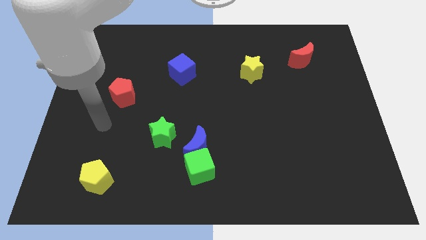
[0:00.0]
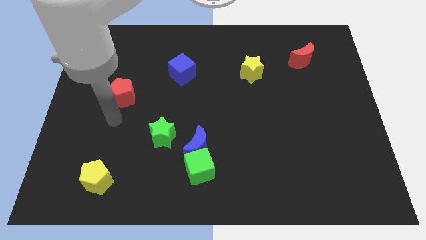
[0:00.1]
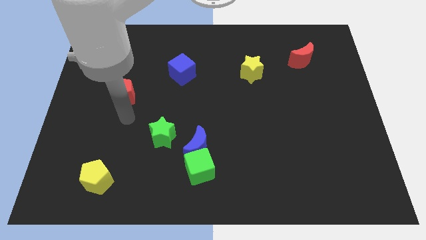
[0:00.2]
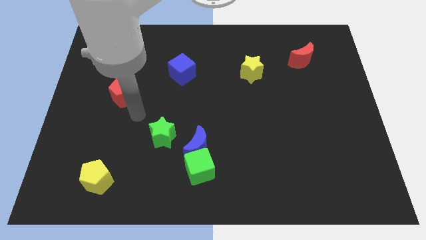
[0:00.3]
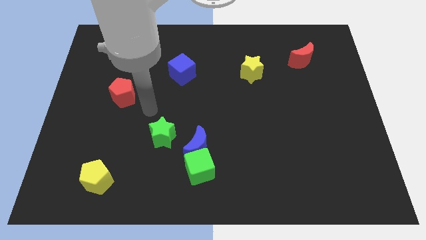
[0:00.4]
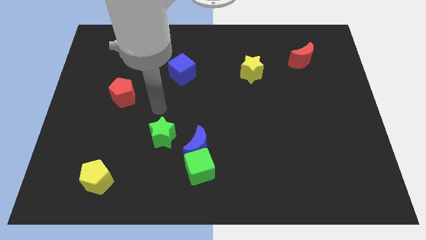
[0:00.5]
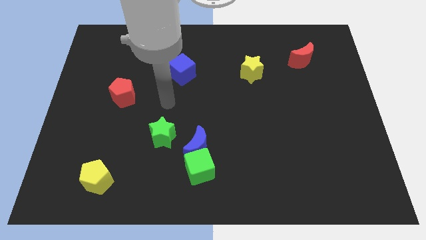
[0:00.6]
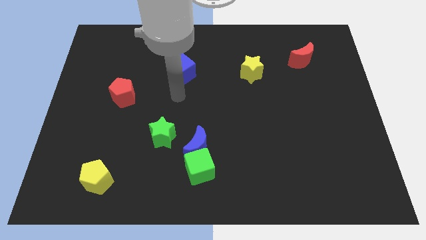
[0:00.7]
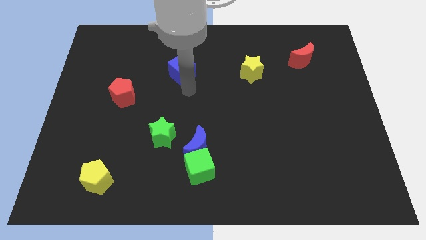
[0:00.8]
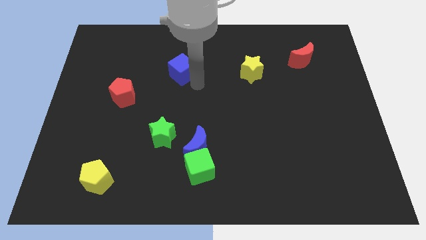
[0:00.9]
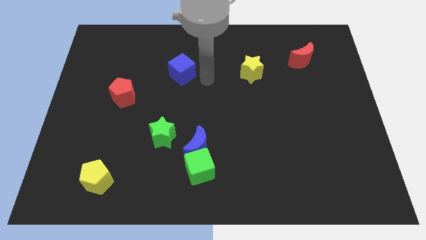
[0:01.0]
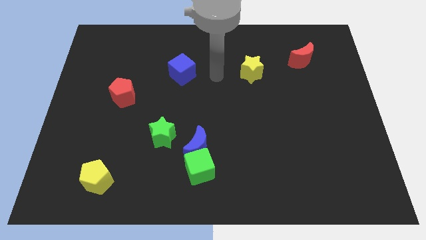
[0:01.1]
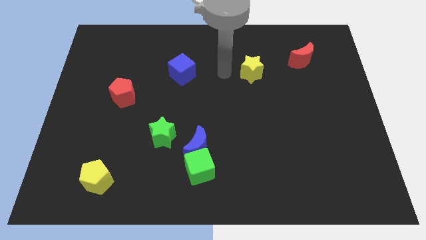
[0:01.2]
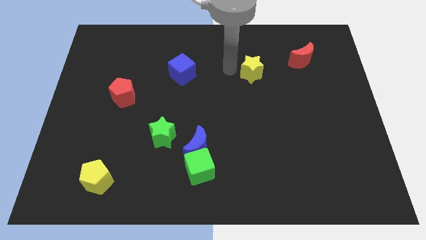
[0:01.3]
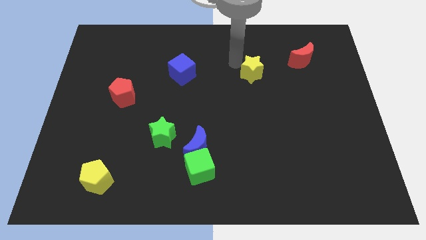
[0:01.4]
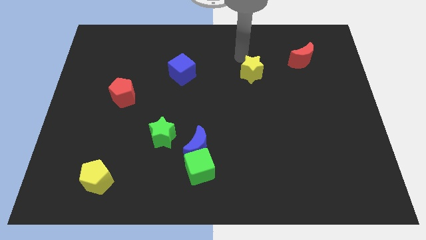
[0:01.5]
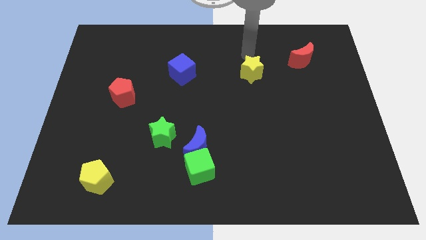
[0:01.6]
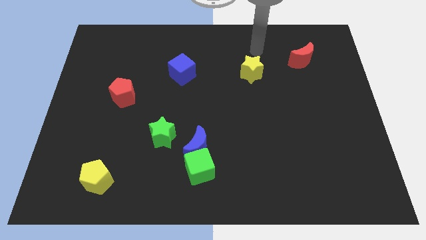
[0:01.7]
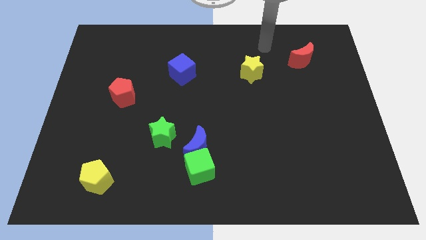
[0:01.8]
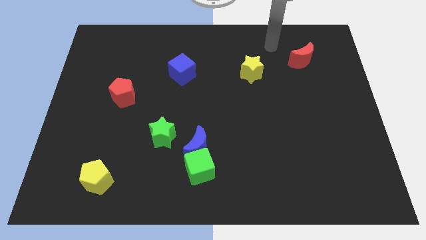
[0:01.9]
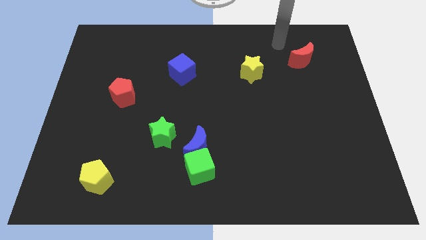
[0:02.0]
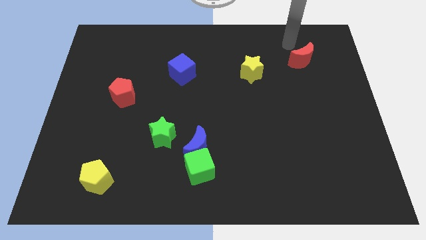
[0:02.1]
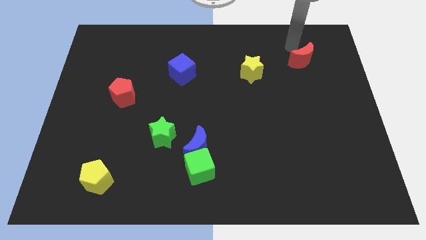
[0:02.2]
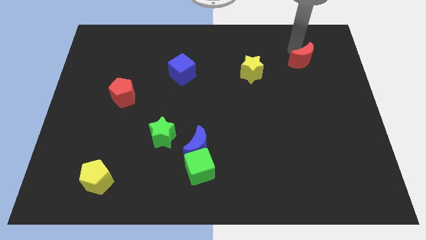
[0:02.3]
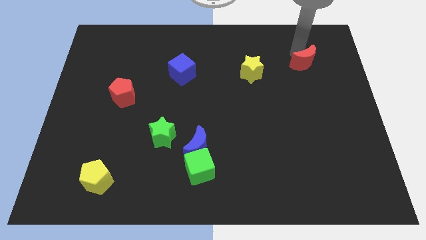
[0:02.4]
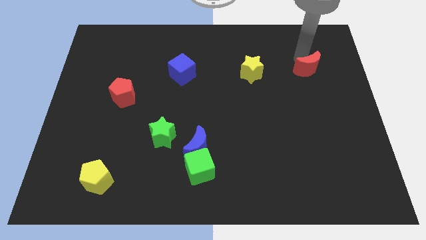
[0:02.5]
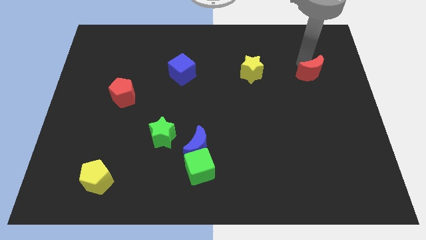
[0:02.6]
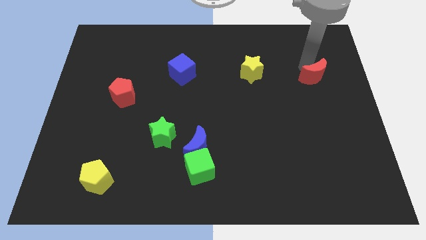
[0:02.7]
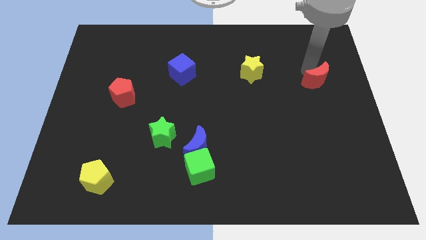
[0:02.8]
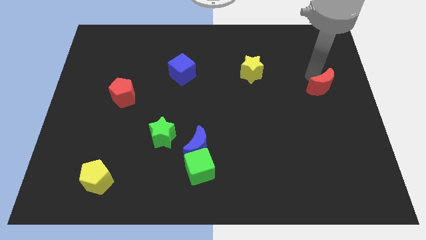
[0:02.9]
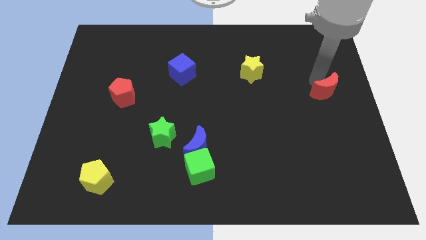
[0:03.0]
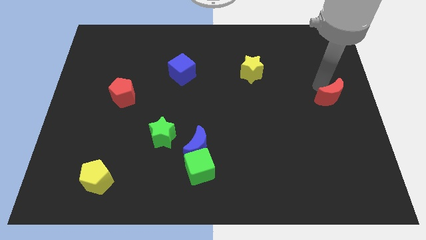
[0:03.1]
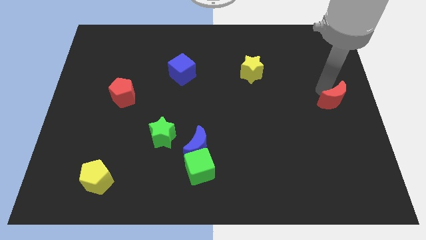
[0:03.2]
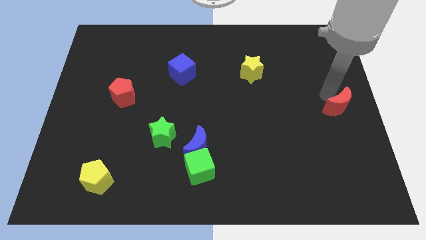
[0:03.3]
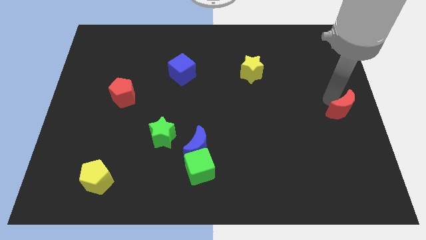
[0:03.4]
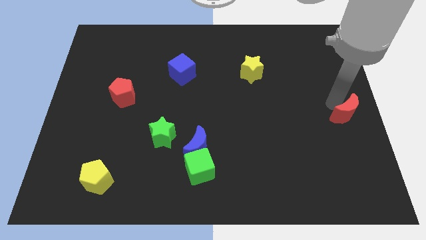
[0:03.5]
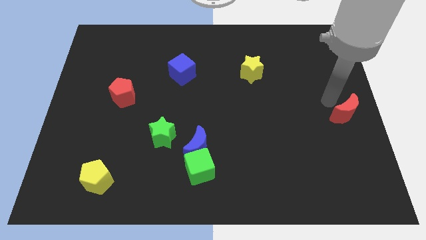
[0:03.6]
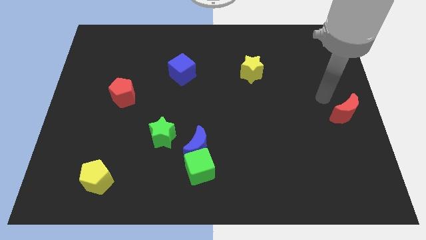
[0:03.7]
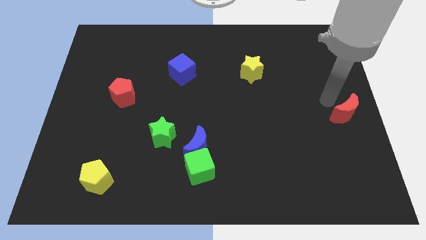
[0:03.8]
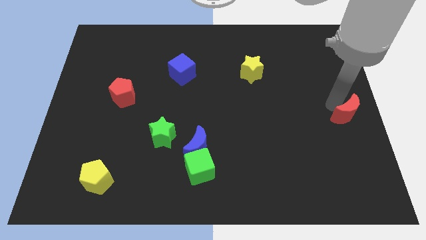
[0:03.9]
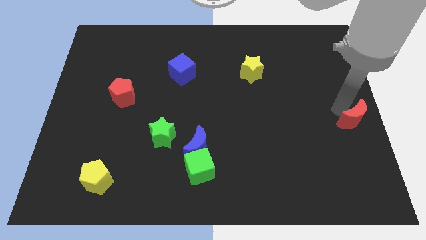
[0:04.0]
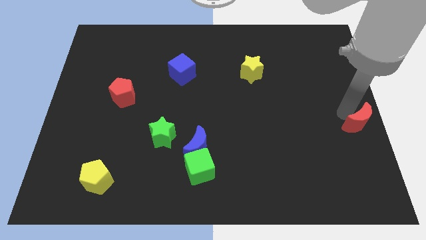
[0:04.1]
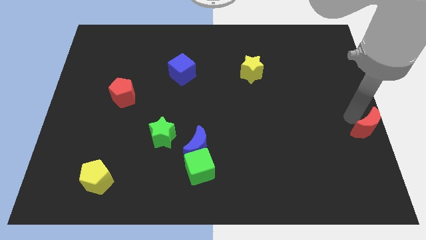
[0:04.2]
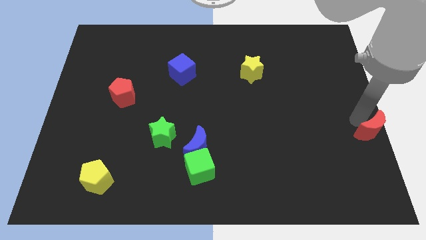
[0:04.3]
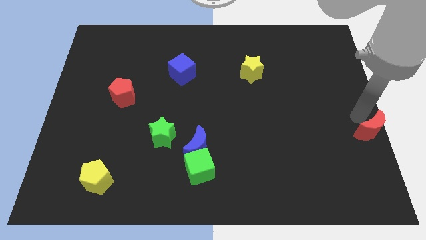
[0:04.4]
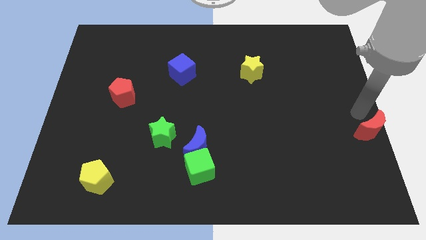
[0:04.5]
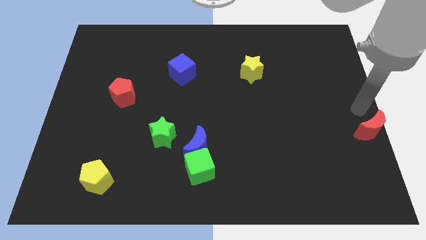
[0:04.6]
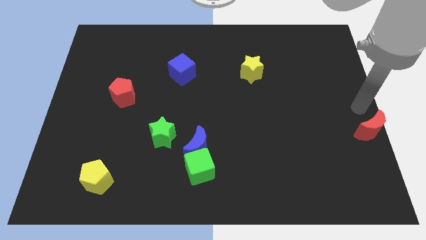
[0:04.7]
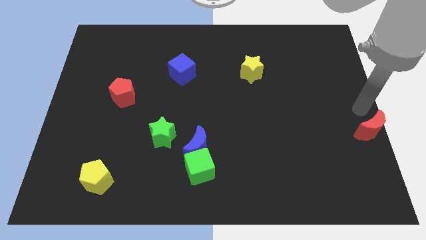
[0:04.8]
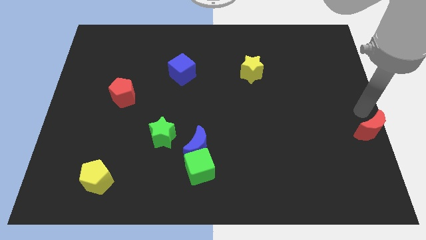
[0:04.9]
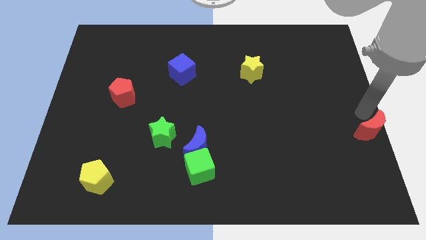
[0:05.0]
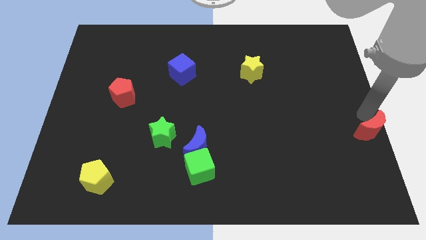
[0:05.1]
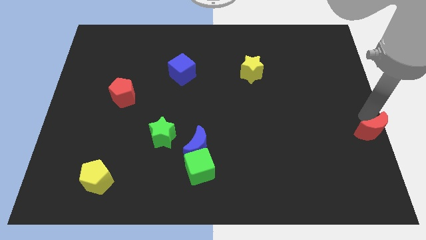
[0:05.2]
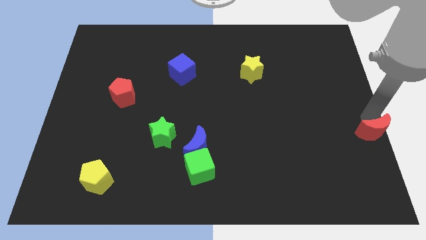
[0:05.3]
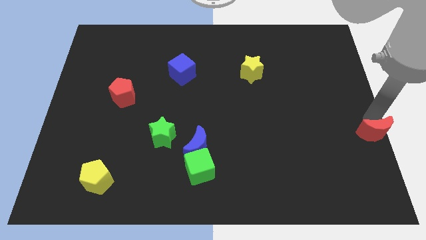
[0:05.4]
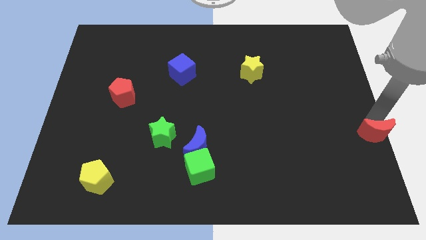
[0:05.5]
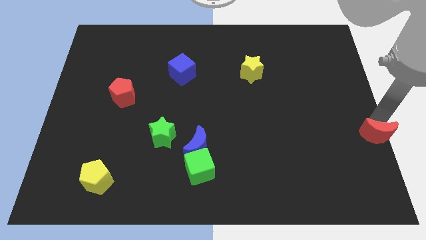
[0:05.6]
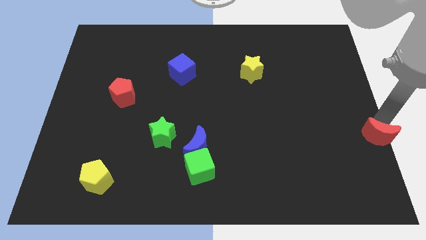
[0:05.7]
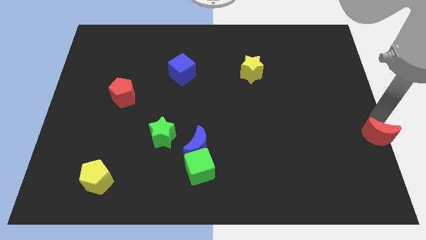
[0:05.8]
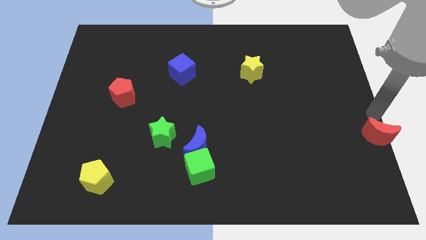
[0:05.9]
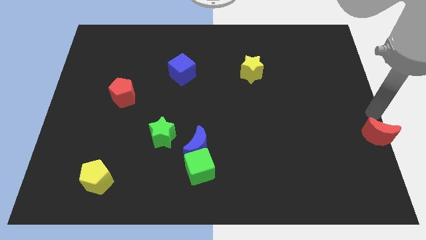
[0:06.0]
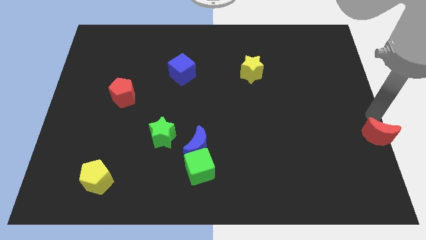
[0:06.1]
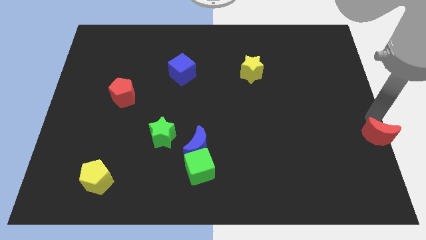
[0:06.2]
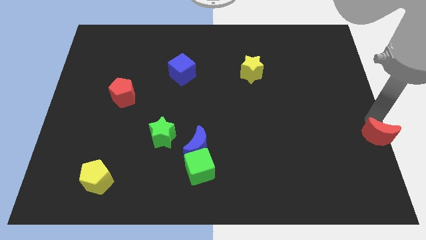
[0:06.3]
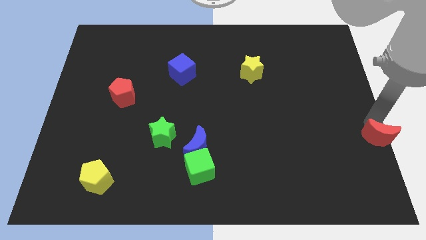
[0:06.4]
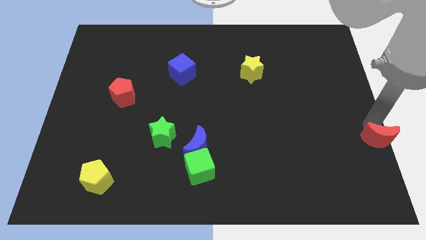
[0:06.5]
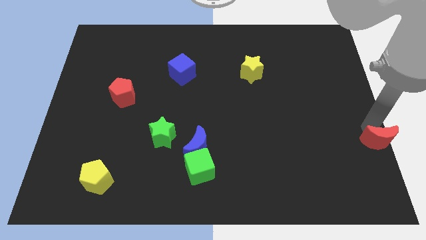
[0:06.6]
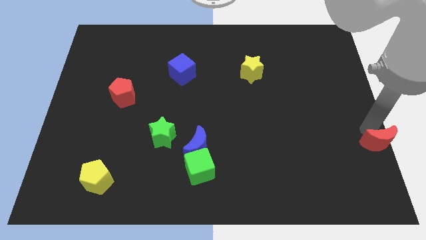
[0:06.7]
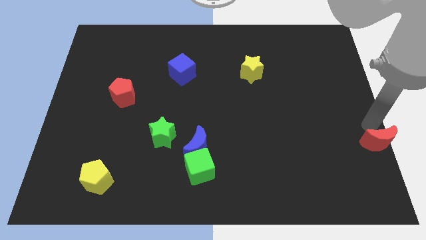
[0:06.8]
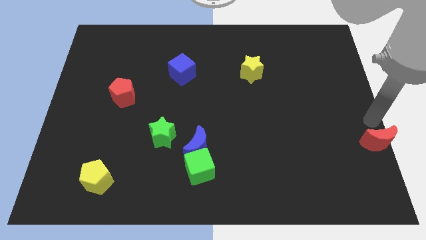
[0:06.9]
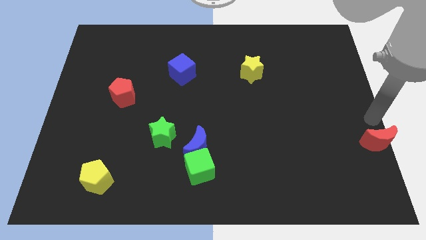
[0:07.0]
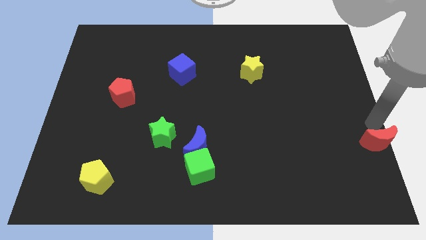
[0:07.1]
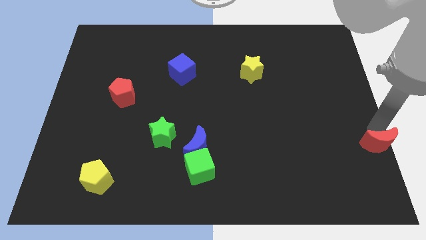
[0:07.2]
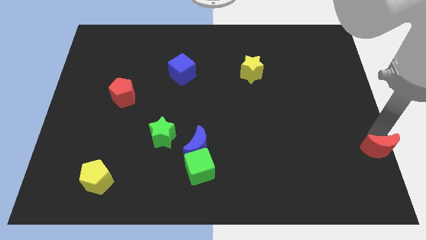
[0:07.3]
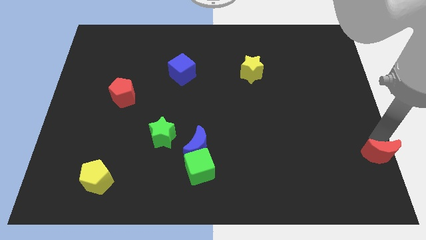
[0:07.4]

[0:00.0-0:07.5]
move the red moon to the lower right corner
